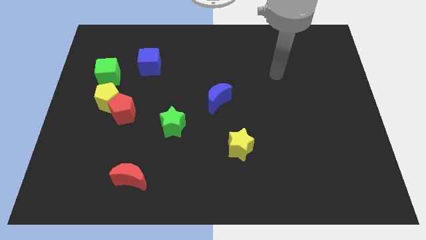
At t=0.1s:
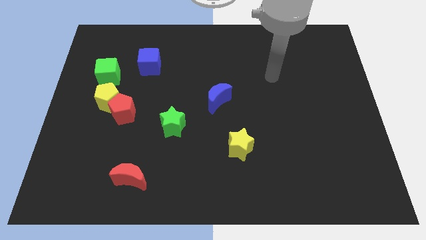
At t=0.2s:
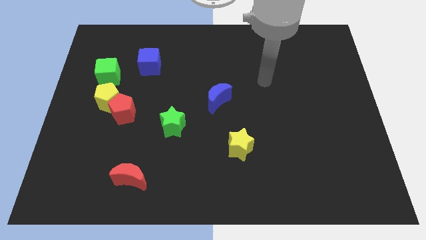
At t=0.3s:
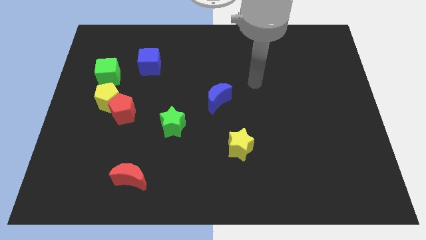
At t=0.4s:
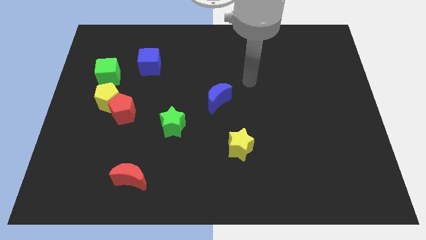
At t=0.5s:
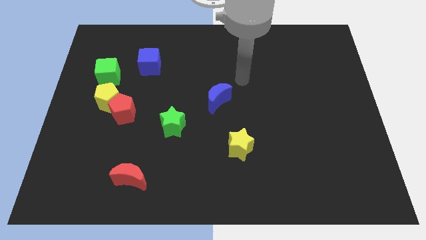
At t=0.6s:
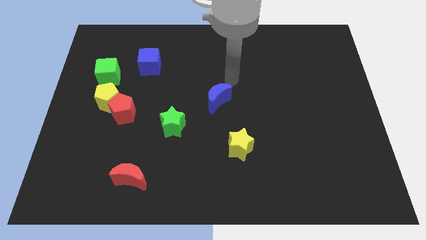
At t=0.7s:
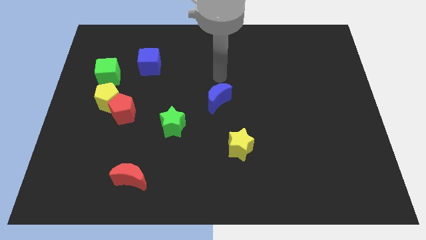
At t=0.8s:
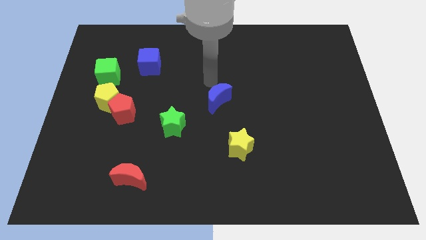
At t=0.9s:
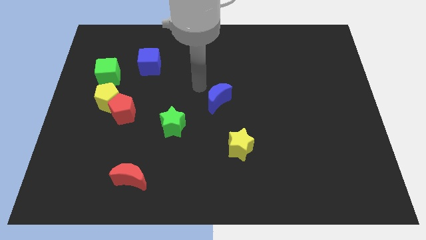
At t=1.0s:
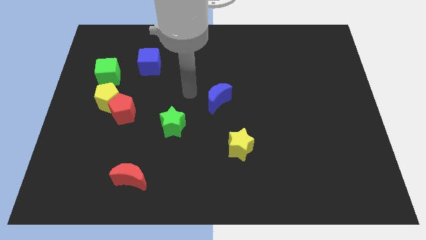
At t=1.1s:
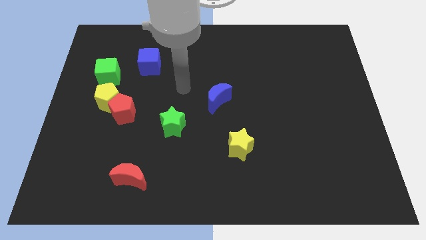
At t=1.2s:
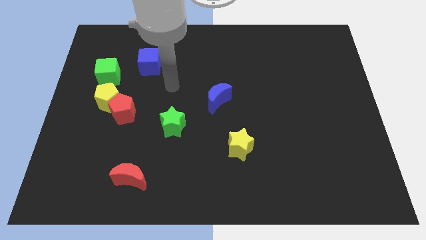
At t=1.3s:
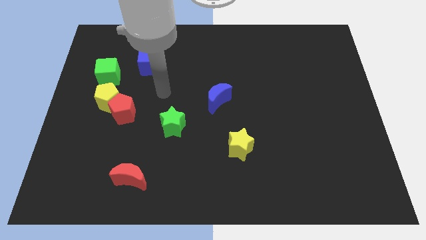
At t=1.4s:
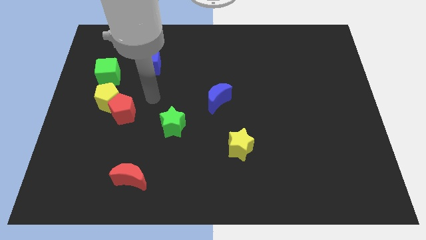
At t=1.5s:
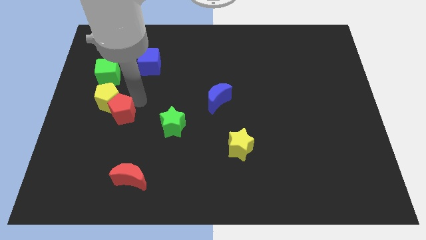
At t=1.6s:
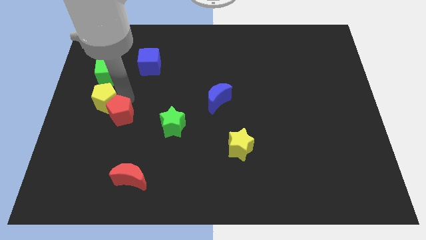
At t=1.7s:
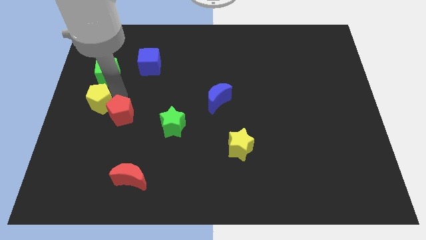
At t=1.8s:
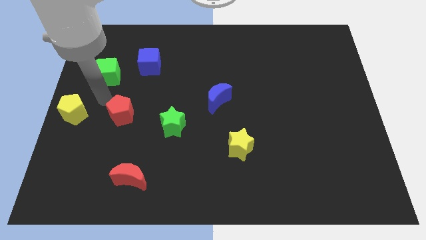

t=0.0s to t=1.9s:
pull the red pentagon apart from the yellow pentagon

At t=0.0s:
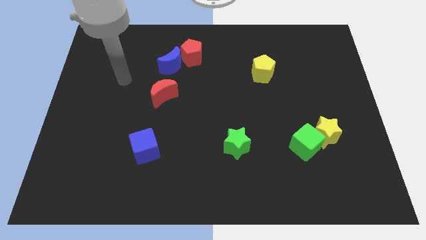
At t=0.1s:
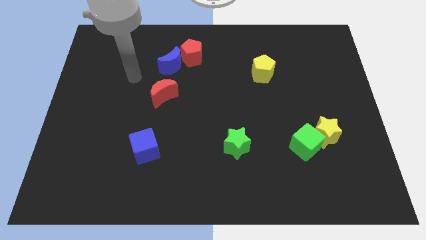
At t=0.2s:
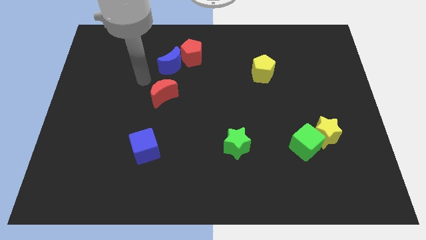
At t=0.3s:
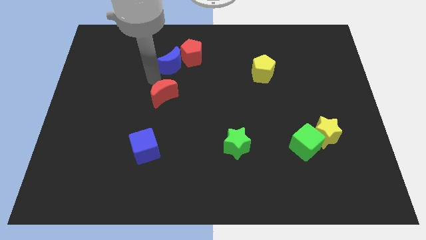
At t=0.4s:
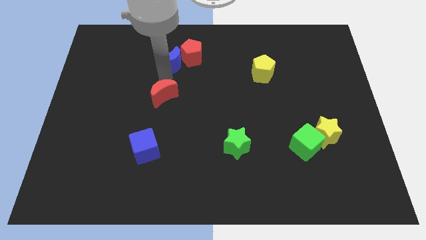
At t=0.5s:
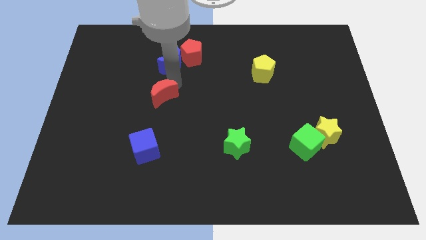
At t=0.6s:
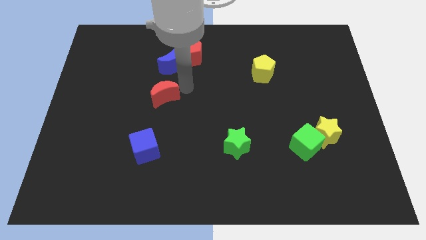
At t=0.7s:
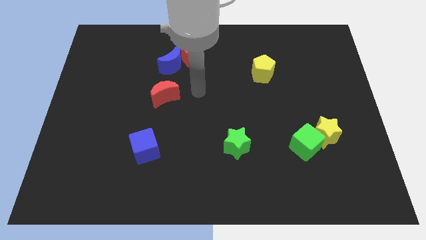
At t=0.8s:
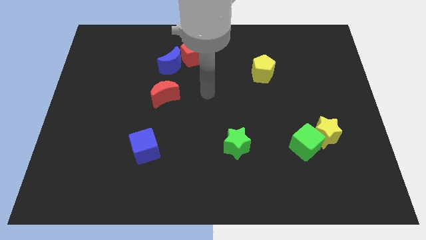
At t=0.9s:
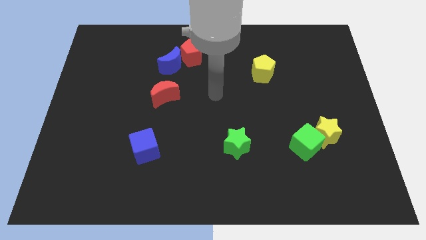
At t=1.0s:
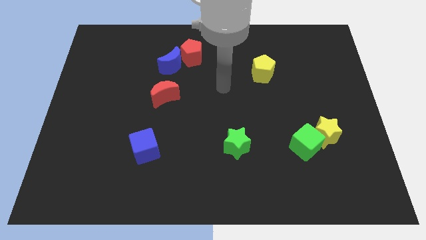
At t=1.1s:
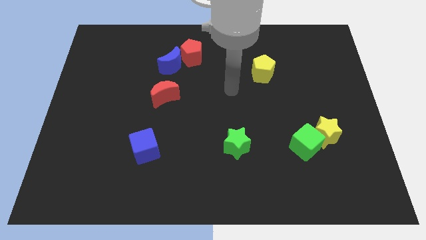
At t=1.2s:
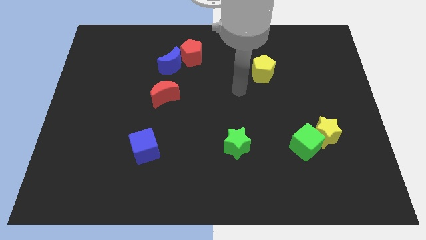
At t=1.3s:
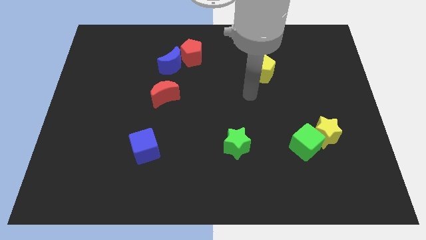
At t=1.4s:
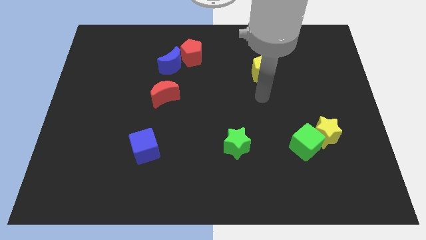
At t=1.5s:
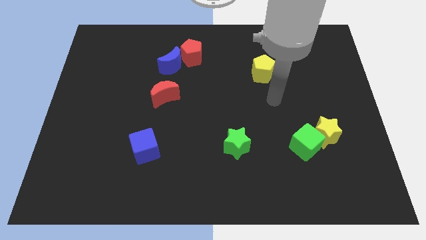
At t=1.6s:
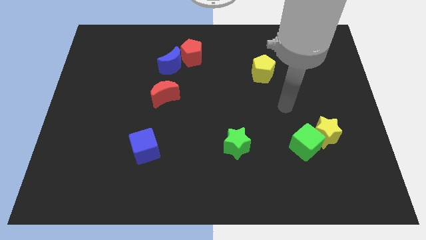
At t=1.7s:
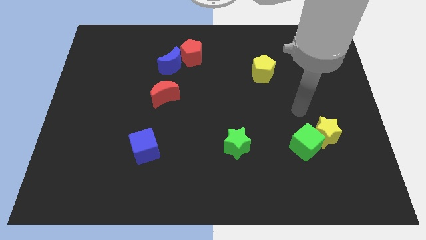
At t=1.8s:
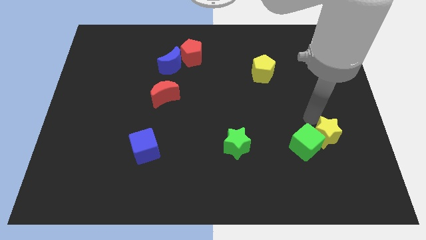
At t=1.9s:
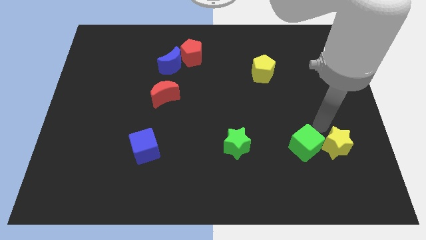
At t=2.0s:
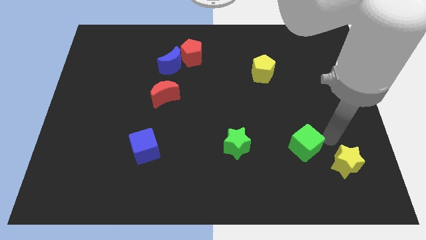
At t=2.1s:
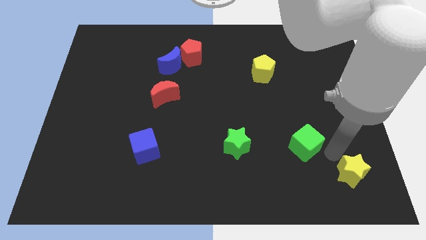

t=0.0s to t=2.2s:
move the green cube away from the yellow star

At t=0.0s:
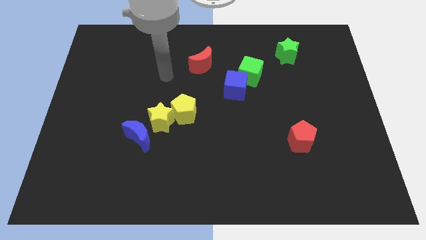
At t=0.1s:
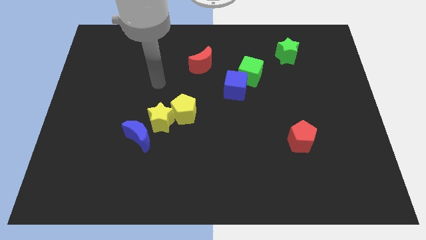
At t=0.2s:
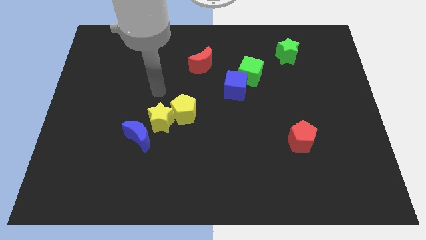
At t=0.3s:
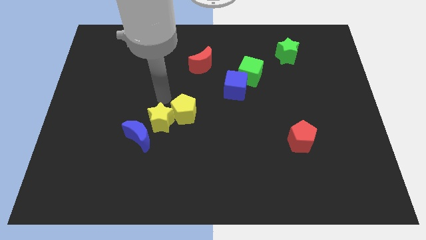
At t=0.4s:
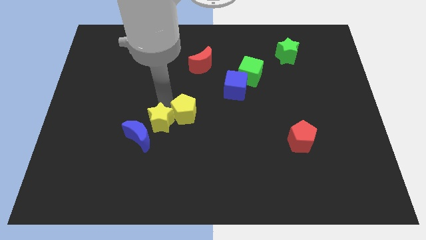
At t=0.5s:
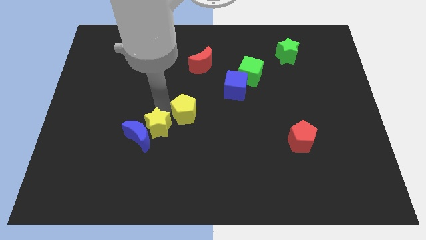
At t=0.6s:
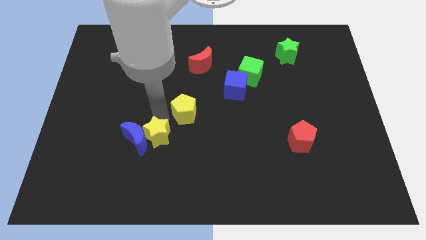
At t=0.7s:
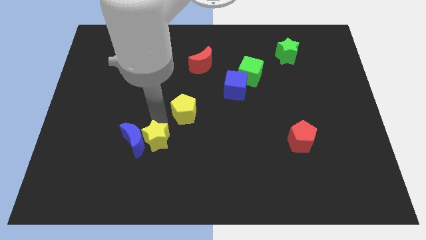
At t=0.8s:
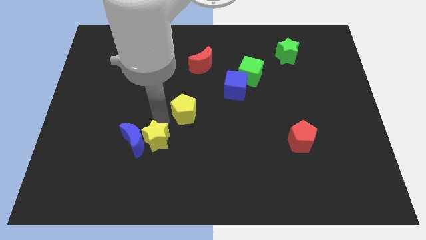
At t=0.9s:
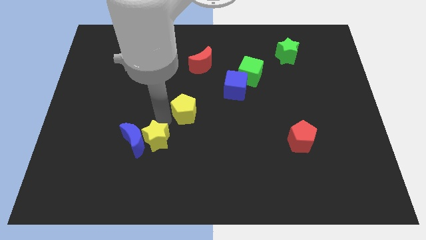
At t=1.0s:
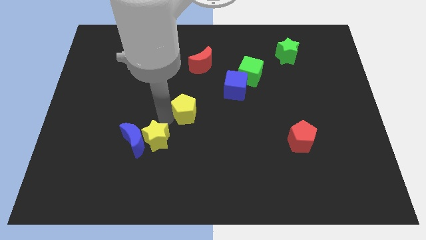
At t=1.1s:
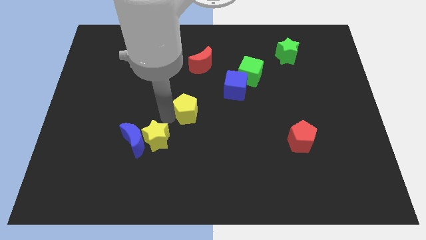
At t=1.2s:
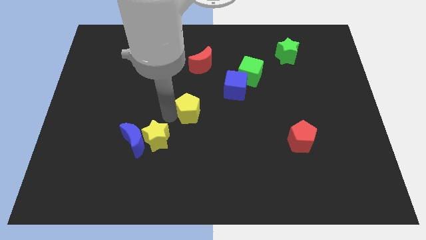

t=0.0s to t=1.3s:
separate the yellow pentagon from the yellow star

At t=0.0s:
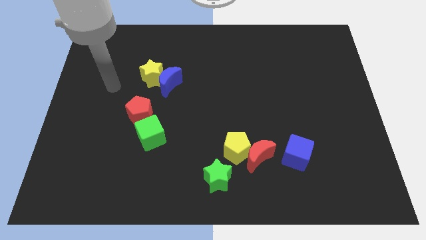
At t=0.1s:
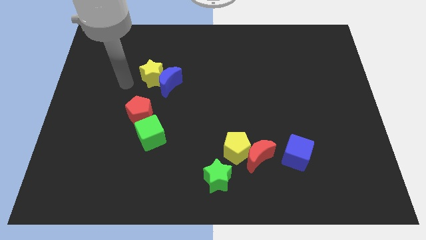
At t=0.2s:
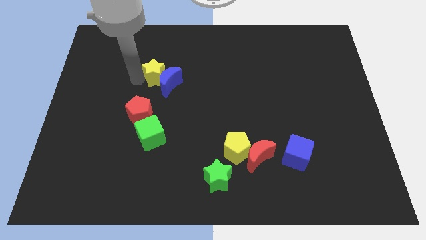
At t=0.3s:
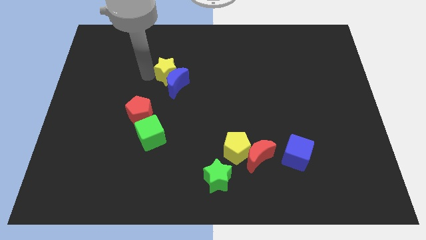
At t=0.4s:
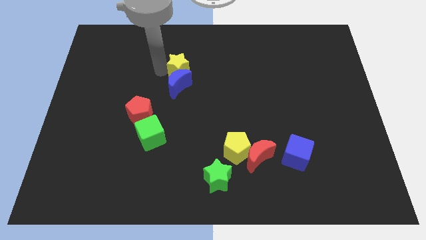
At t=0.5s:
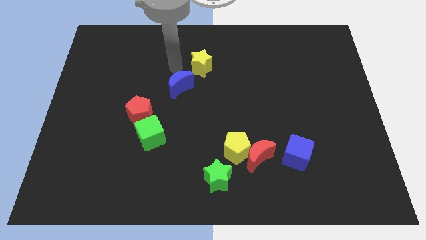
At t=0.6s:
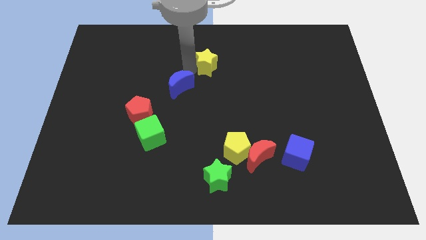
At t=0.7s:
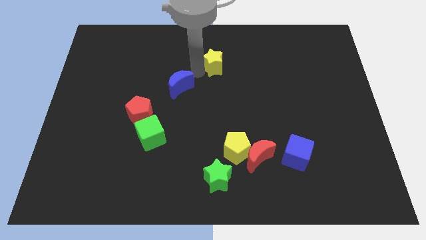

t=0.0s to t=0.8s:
move the blue moon away from the yellow star

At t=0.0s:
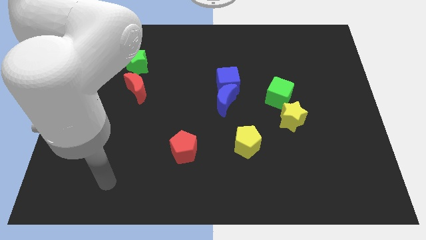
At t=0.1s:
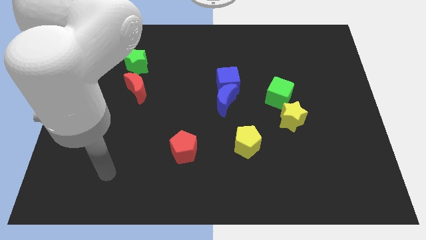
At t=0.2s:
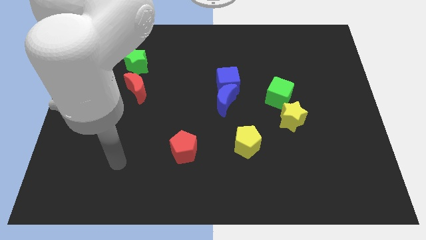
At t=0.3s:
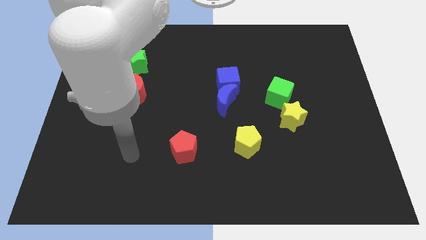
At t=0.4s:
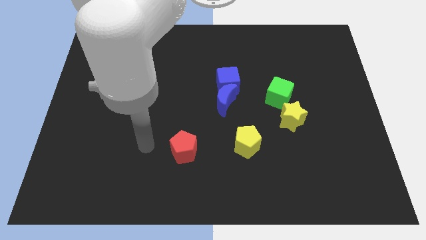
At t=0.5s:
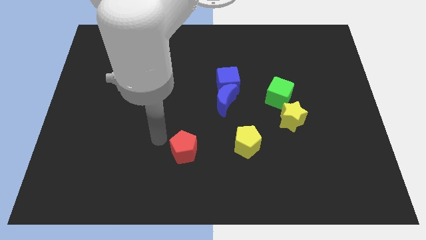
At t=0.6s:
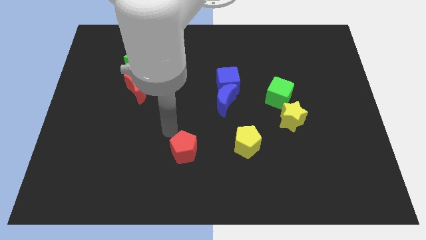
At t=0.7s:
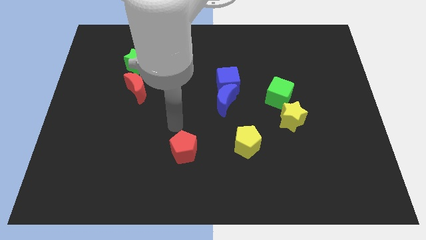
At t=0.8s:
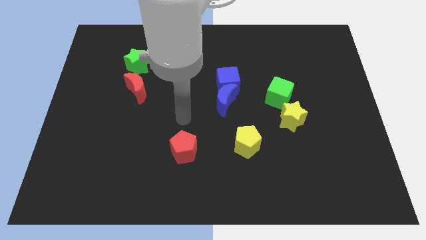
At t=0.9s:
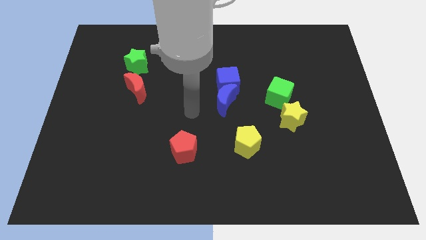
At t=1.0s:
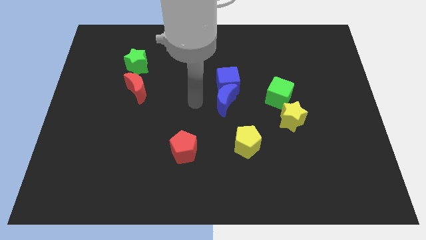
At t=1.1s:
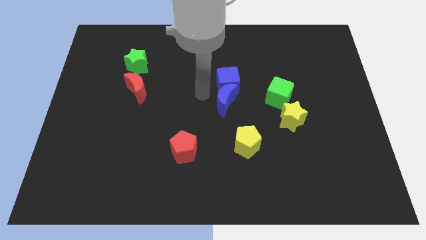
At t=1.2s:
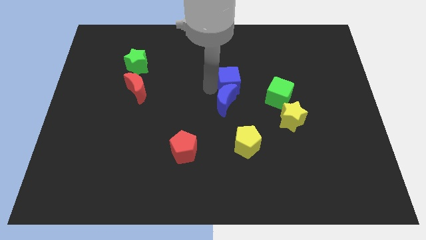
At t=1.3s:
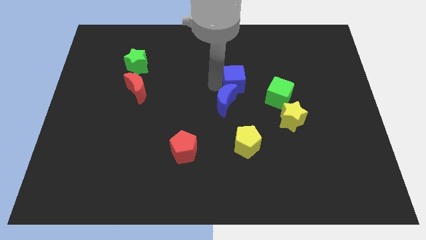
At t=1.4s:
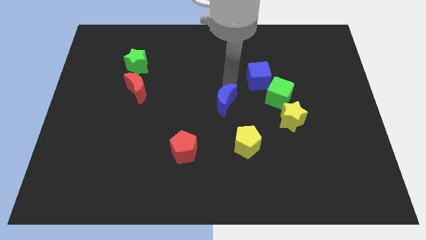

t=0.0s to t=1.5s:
separate the blue moon from the blue cube

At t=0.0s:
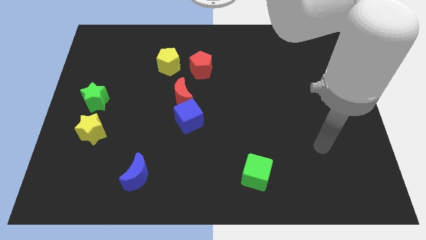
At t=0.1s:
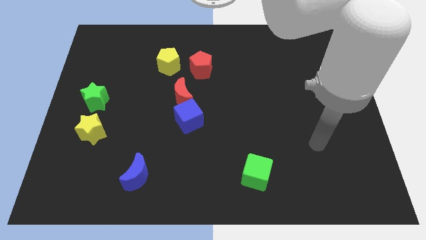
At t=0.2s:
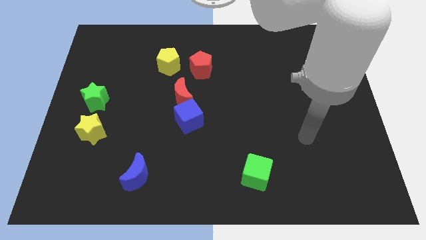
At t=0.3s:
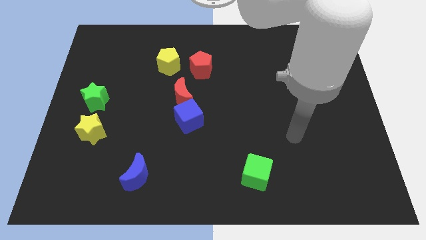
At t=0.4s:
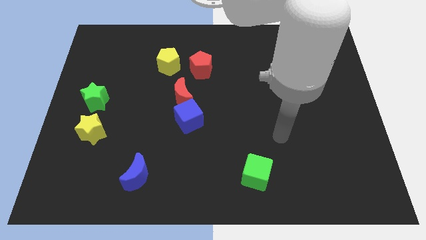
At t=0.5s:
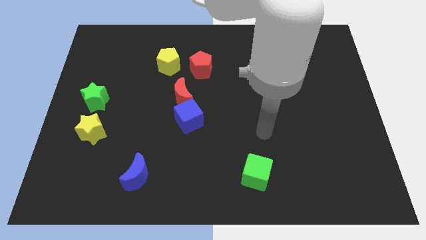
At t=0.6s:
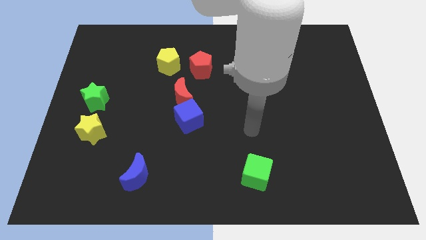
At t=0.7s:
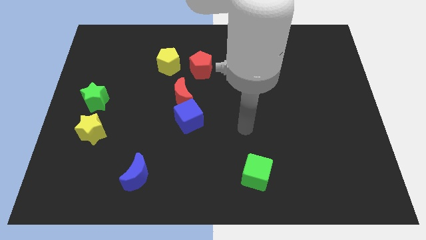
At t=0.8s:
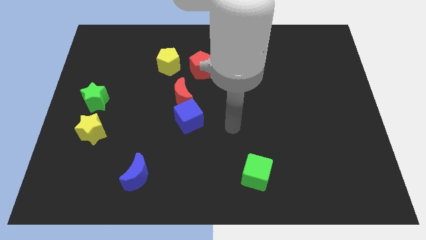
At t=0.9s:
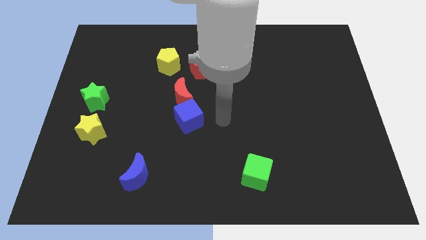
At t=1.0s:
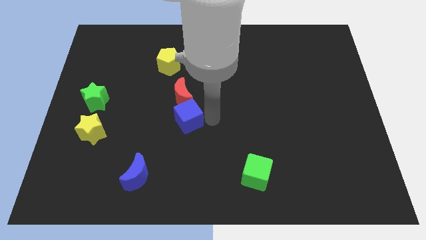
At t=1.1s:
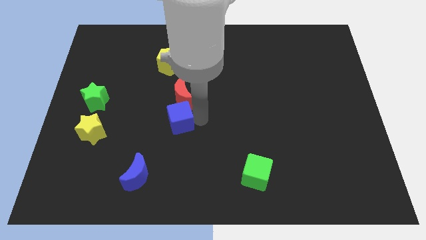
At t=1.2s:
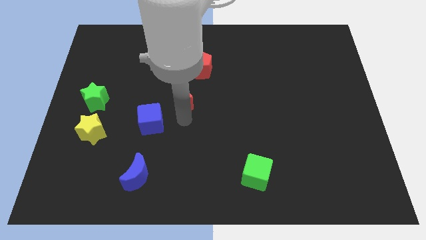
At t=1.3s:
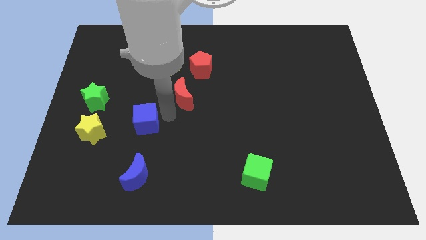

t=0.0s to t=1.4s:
separate the red moon from the blue cube

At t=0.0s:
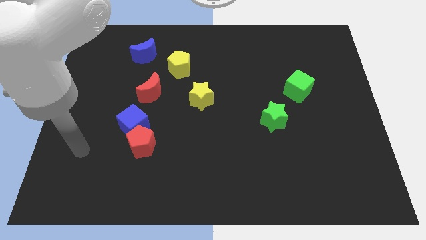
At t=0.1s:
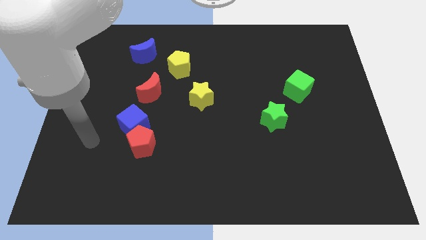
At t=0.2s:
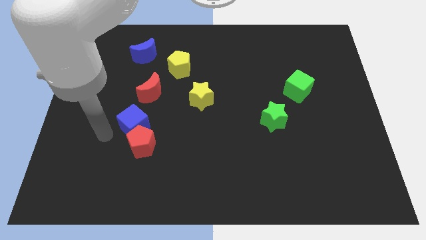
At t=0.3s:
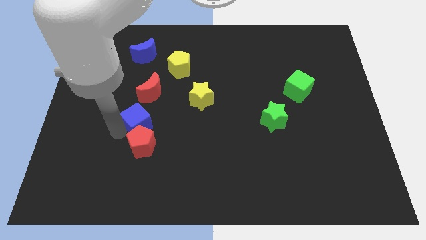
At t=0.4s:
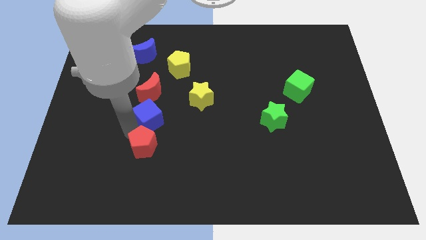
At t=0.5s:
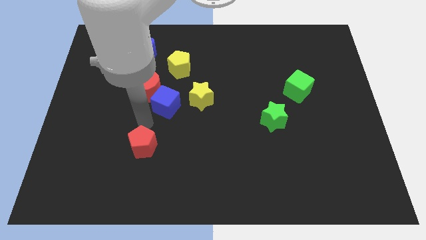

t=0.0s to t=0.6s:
separate the red pentagon from the blue cube
